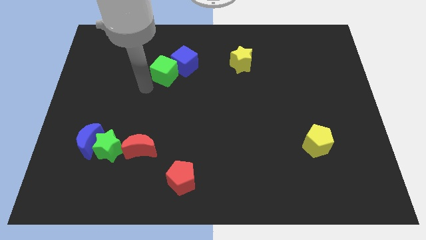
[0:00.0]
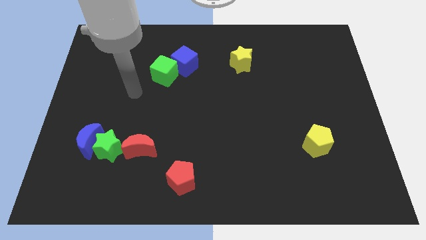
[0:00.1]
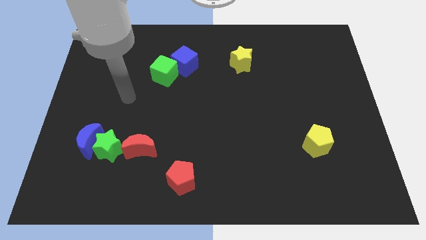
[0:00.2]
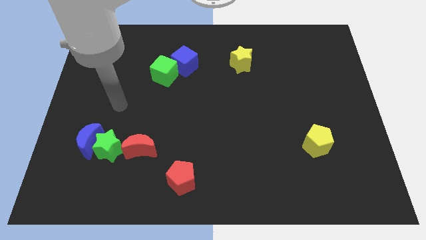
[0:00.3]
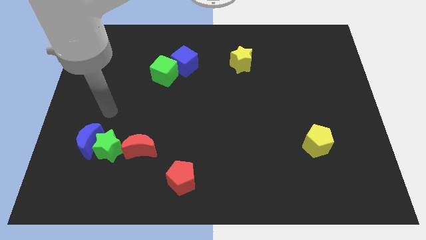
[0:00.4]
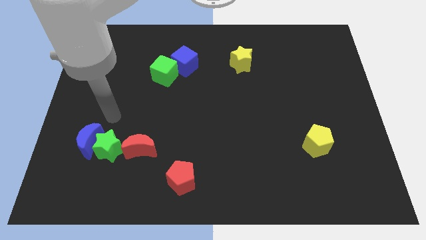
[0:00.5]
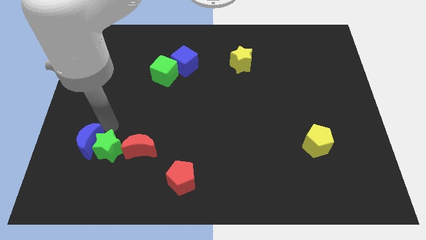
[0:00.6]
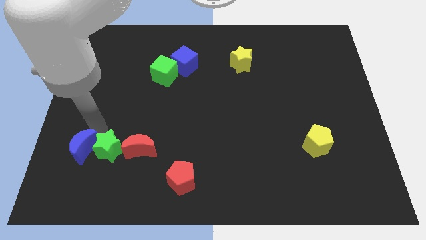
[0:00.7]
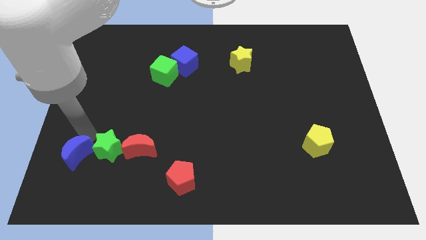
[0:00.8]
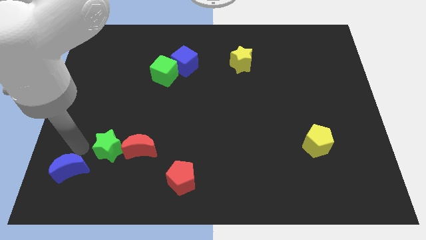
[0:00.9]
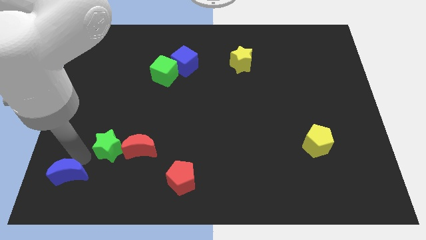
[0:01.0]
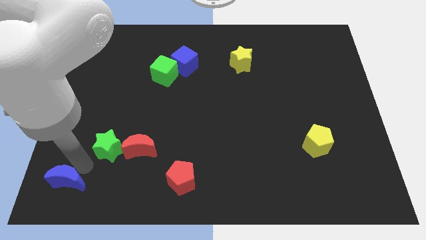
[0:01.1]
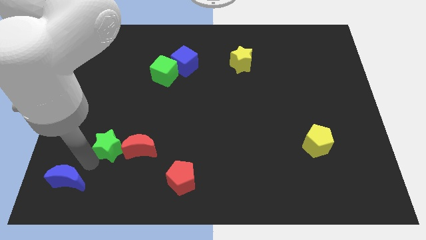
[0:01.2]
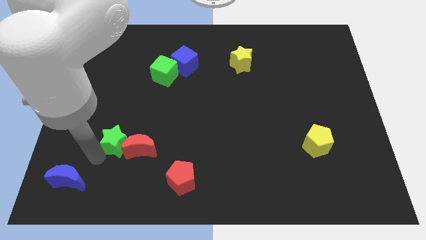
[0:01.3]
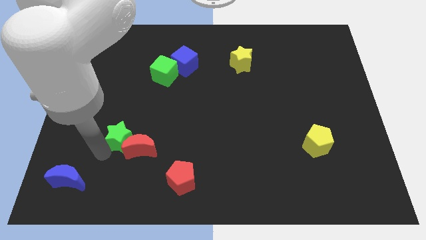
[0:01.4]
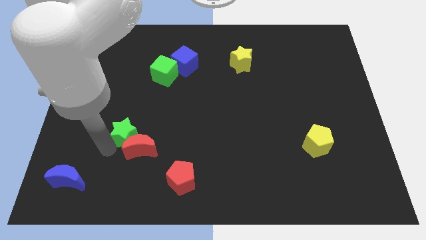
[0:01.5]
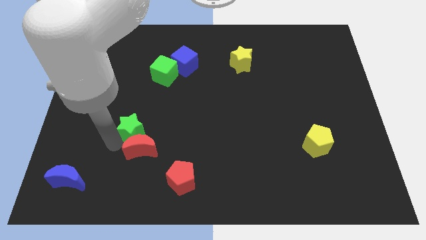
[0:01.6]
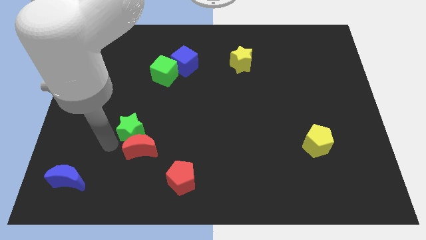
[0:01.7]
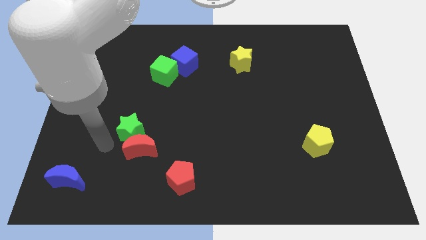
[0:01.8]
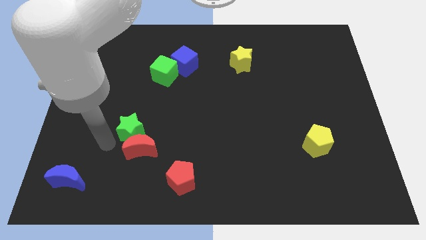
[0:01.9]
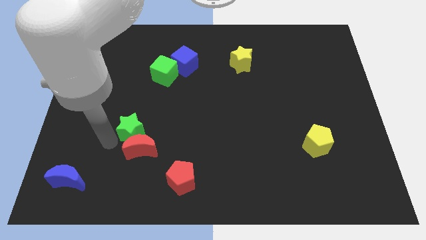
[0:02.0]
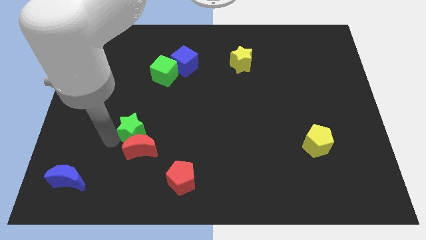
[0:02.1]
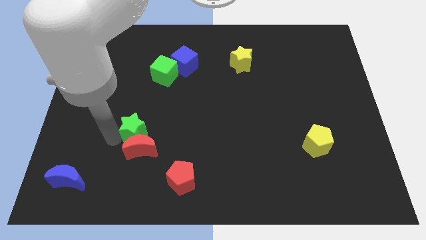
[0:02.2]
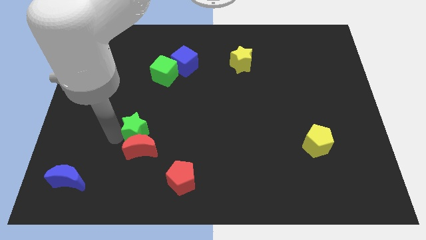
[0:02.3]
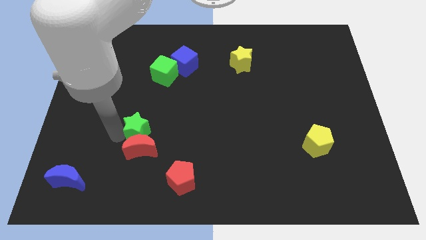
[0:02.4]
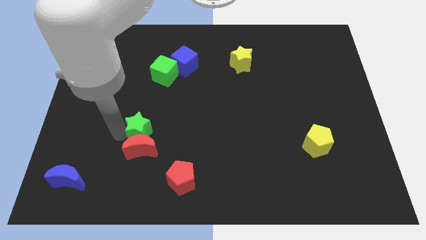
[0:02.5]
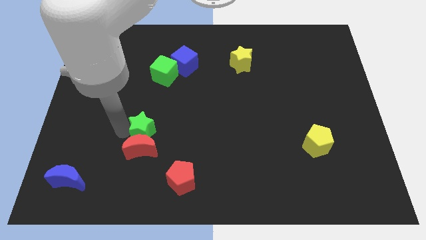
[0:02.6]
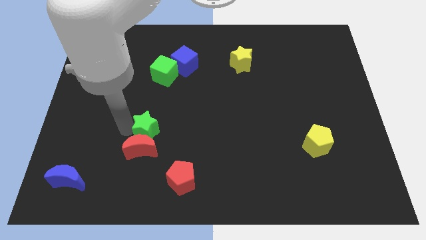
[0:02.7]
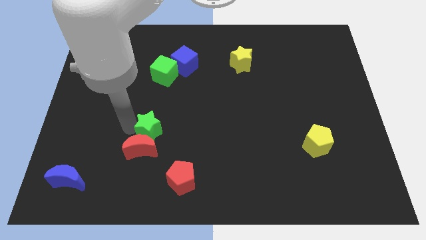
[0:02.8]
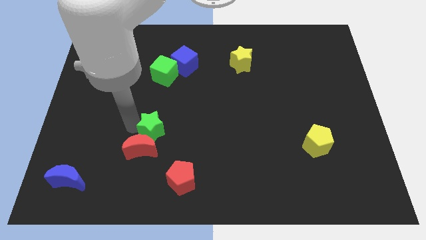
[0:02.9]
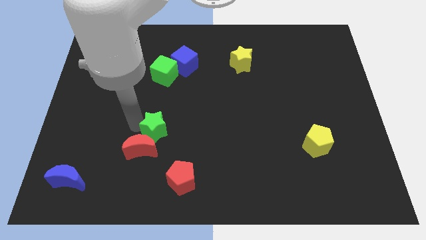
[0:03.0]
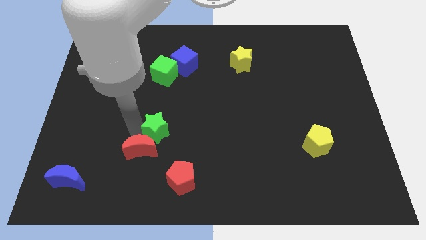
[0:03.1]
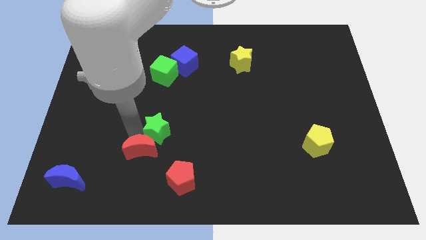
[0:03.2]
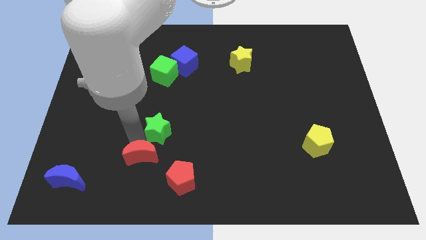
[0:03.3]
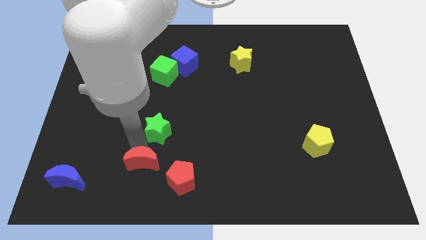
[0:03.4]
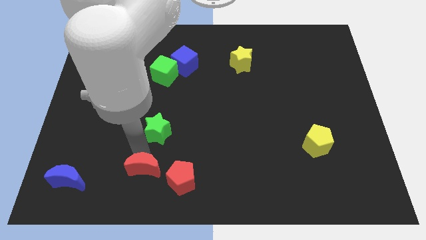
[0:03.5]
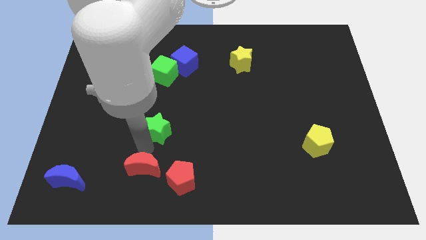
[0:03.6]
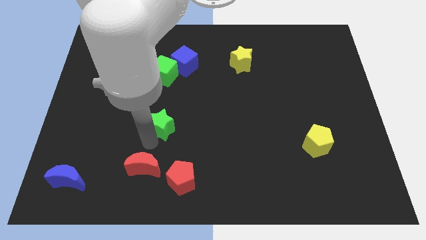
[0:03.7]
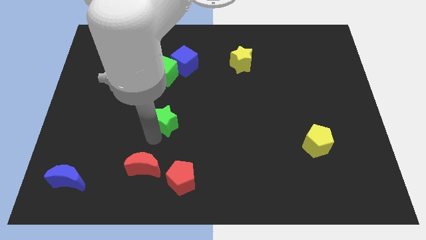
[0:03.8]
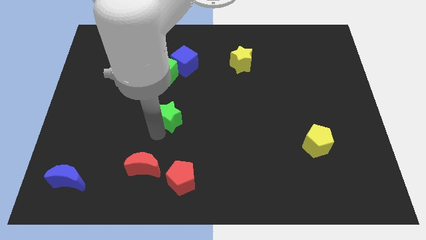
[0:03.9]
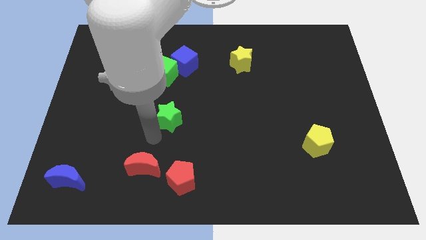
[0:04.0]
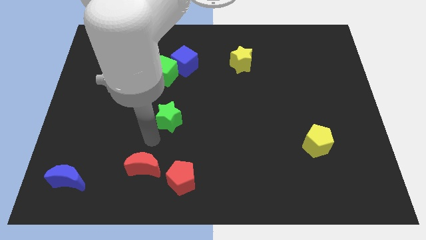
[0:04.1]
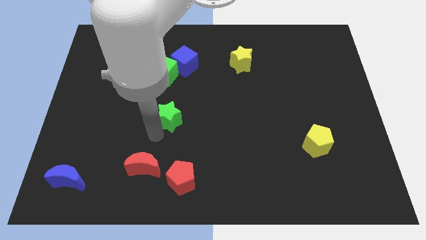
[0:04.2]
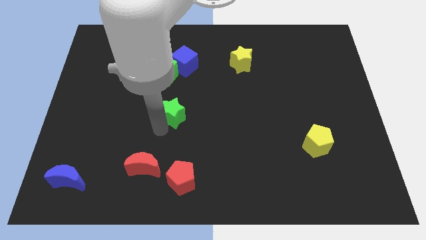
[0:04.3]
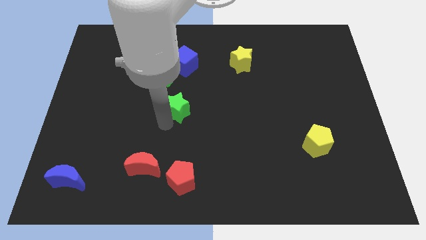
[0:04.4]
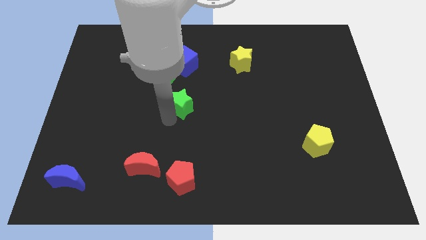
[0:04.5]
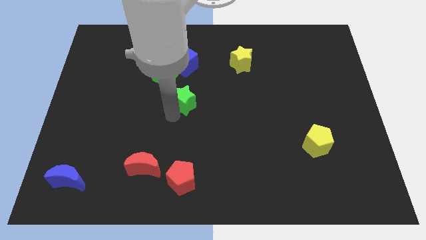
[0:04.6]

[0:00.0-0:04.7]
slide the green star up and then right

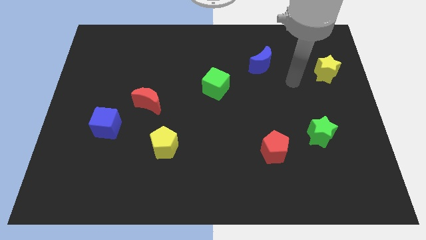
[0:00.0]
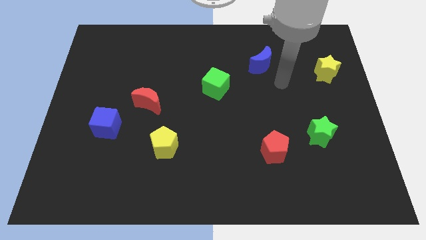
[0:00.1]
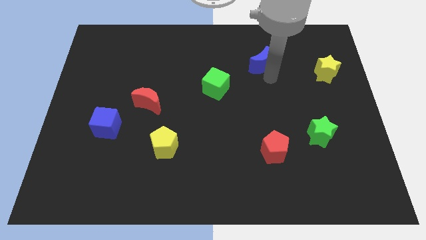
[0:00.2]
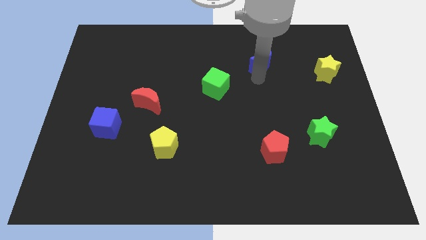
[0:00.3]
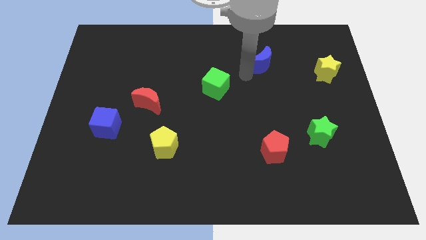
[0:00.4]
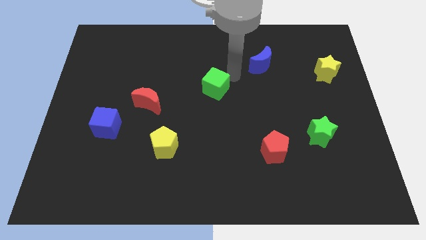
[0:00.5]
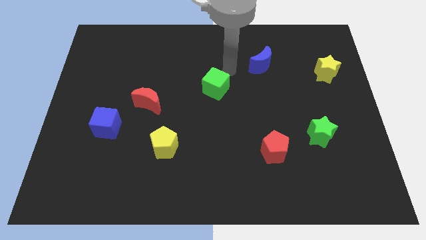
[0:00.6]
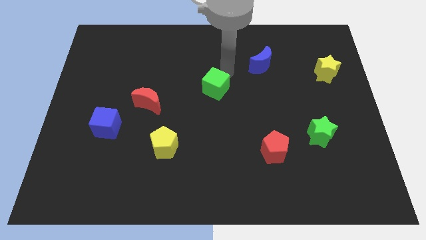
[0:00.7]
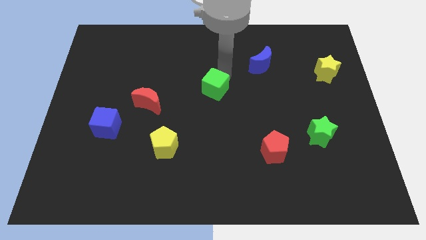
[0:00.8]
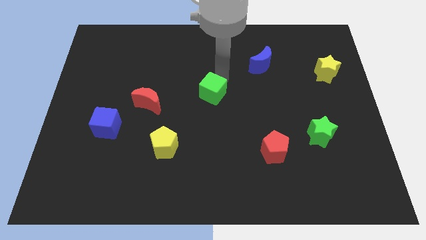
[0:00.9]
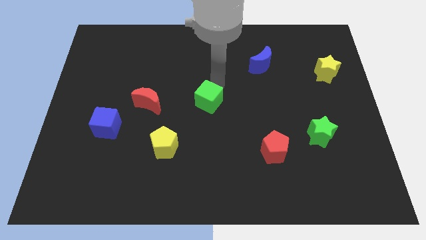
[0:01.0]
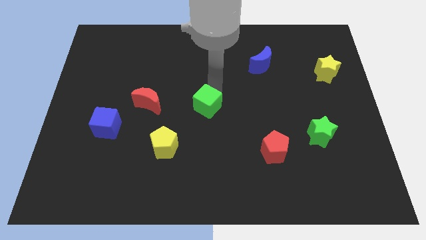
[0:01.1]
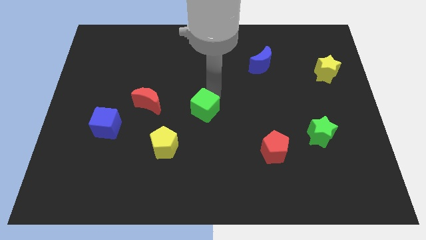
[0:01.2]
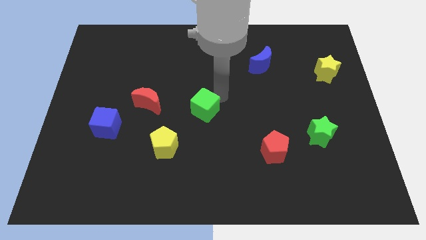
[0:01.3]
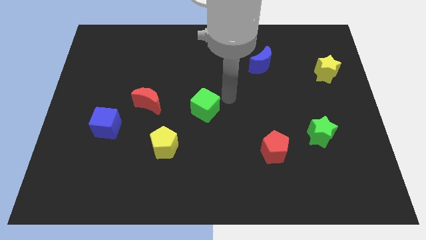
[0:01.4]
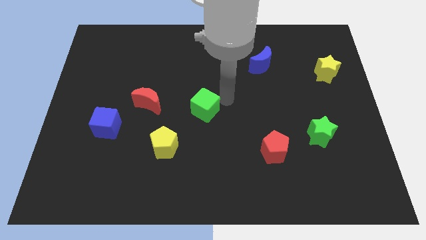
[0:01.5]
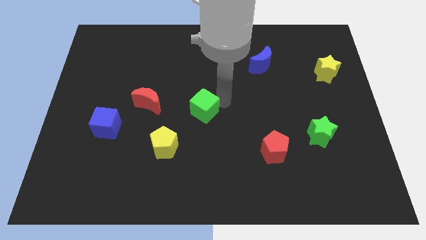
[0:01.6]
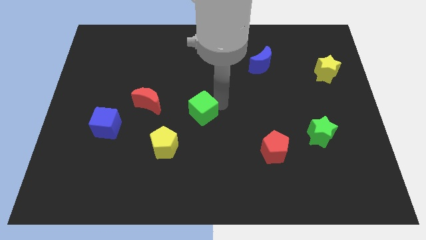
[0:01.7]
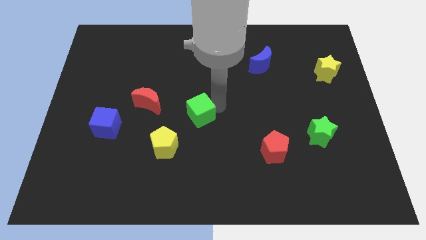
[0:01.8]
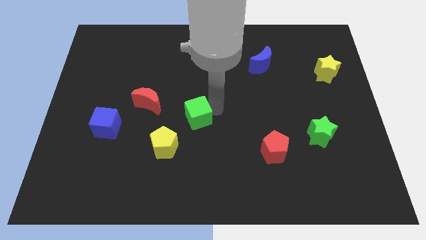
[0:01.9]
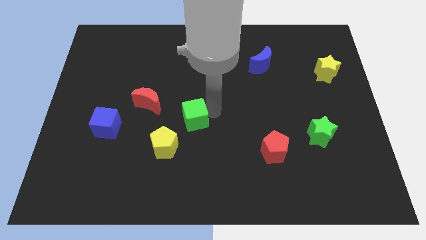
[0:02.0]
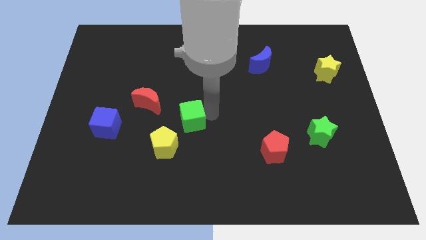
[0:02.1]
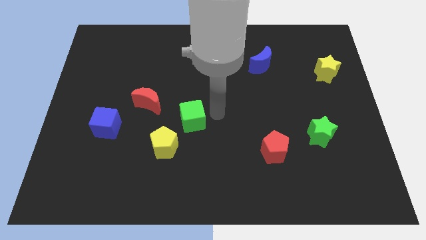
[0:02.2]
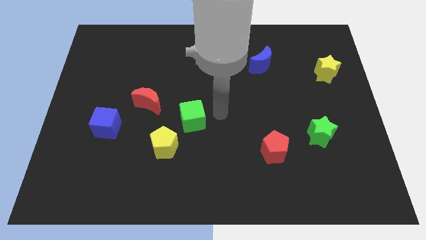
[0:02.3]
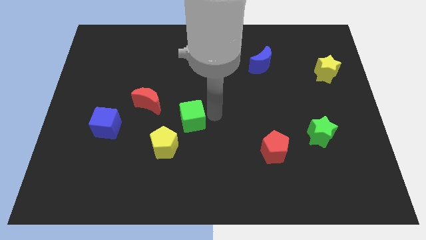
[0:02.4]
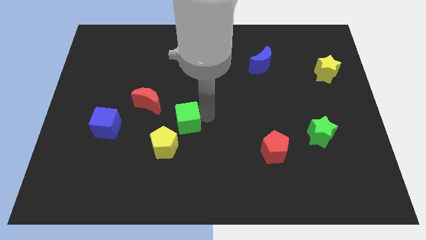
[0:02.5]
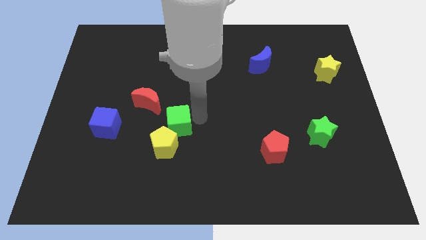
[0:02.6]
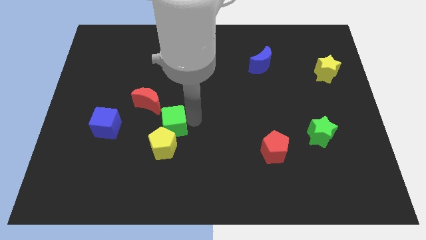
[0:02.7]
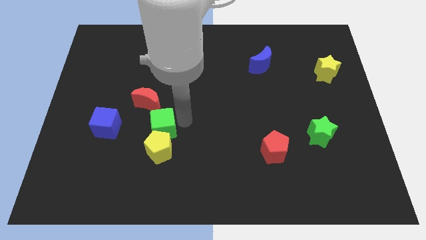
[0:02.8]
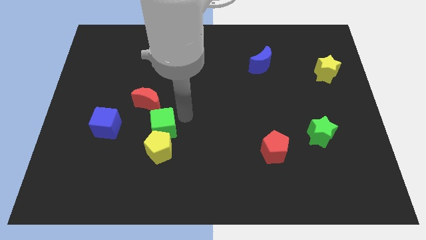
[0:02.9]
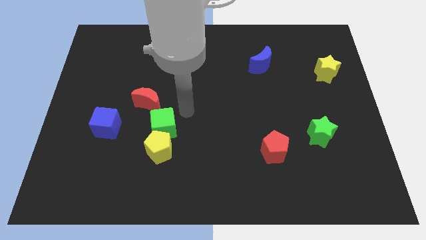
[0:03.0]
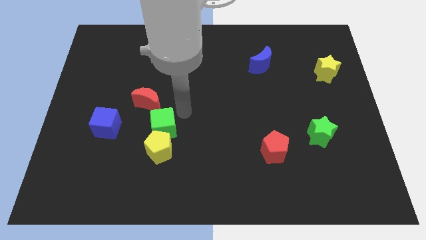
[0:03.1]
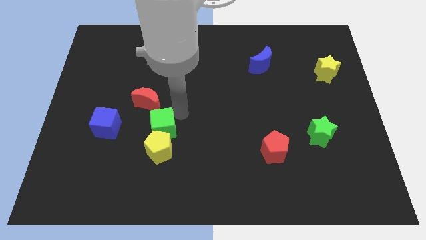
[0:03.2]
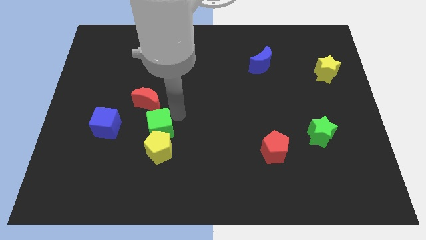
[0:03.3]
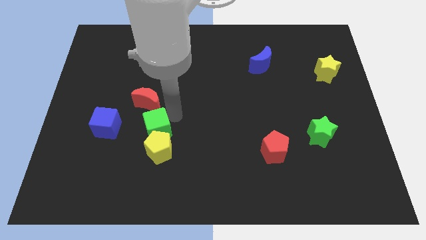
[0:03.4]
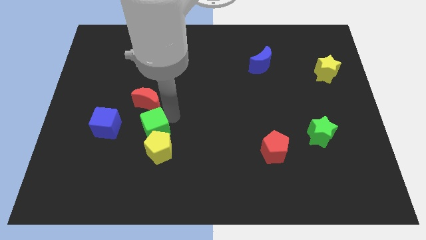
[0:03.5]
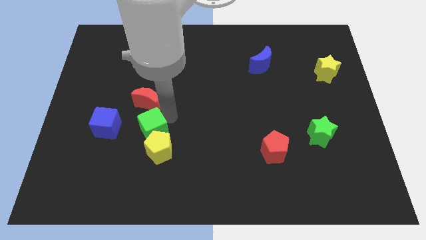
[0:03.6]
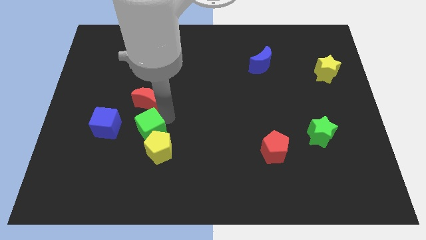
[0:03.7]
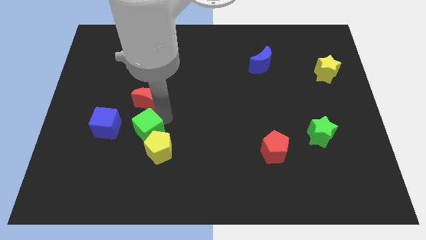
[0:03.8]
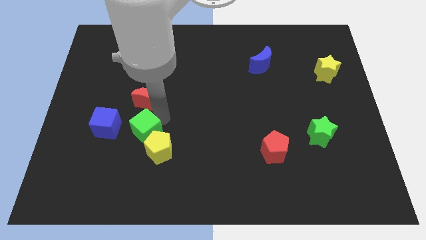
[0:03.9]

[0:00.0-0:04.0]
move the green cube diagonally down and left
